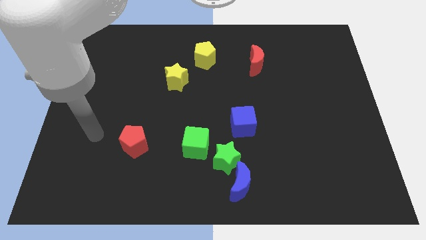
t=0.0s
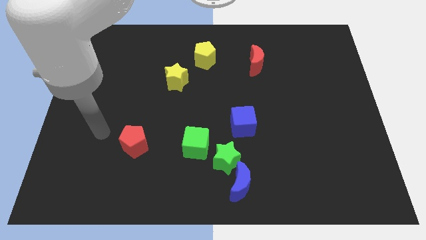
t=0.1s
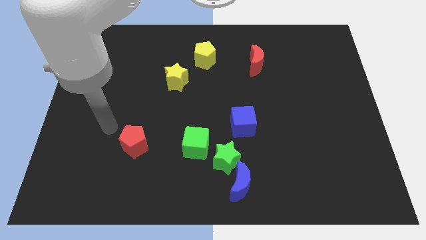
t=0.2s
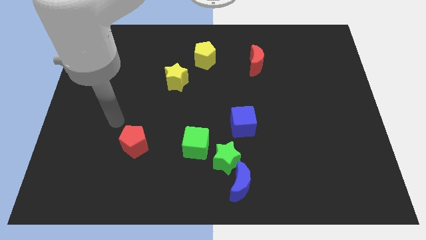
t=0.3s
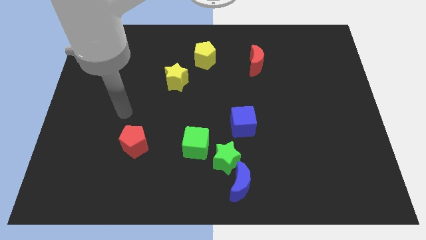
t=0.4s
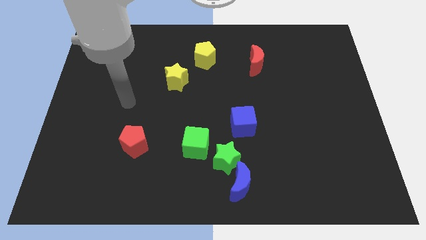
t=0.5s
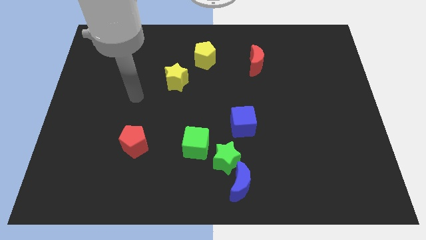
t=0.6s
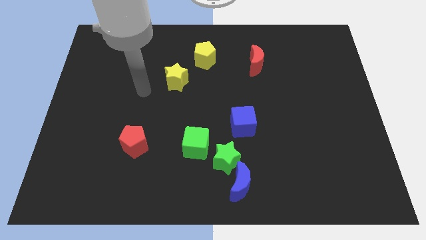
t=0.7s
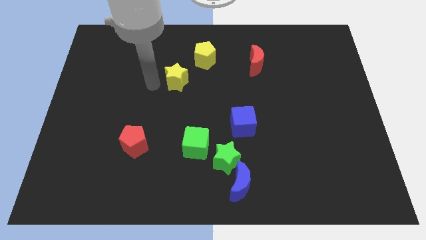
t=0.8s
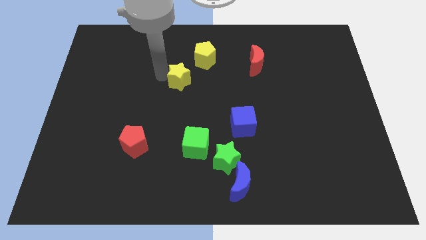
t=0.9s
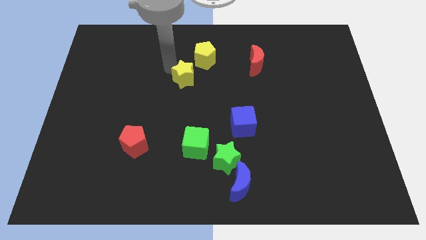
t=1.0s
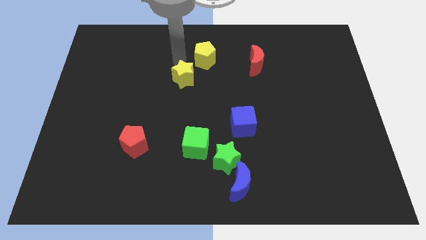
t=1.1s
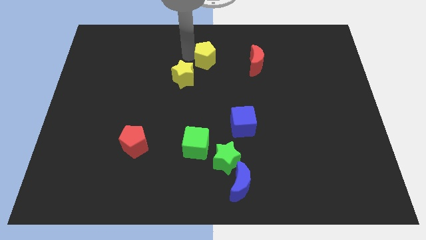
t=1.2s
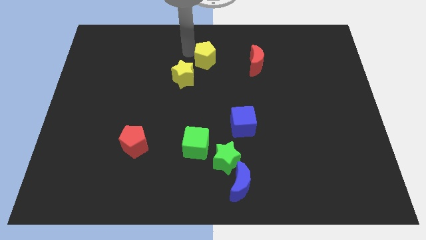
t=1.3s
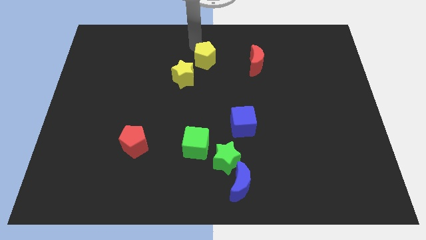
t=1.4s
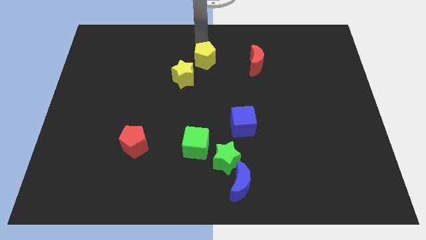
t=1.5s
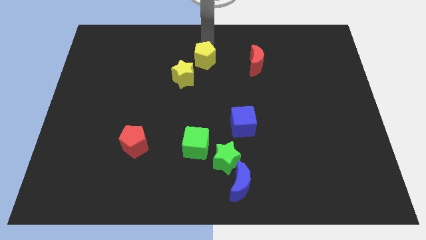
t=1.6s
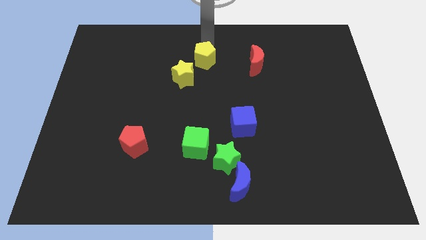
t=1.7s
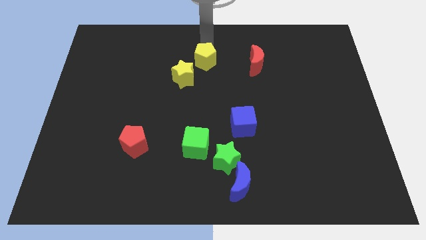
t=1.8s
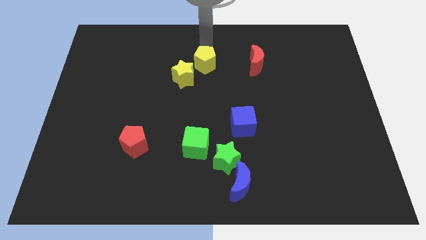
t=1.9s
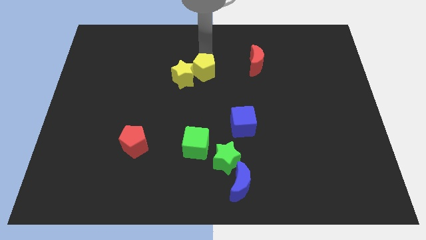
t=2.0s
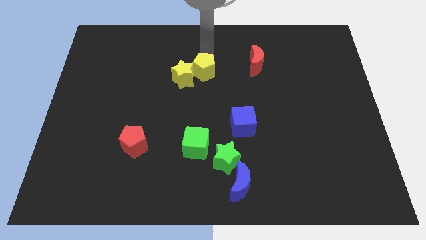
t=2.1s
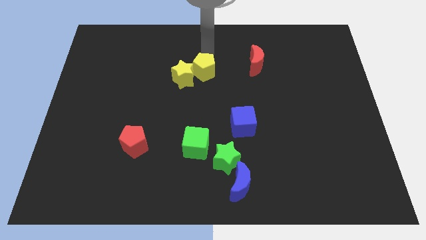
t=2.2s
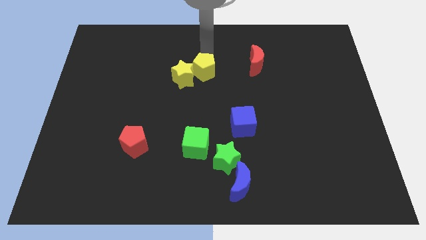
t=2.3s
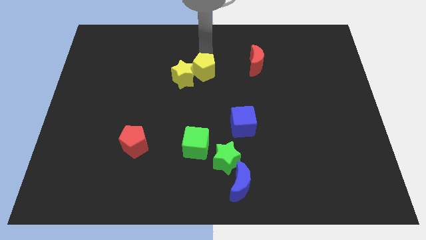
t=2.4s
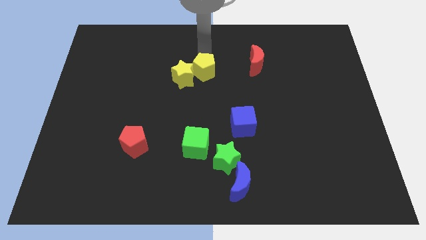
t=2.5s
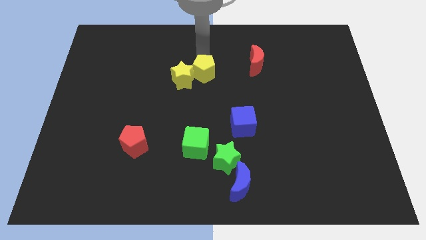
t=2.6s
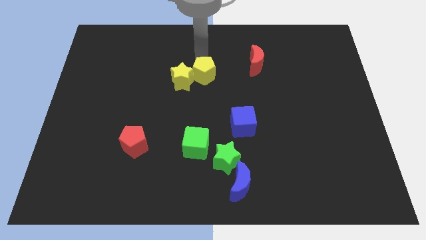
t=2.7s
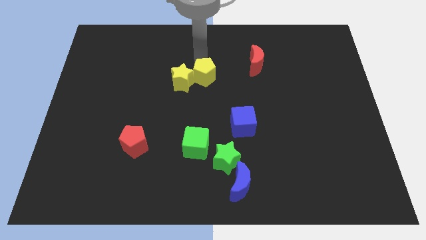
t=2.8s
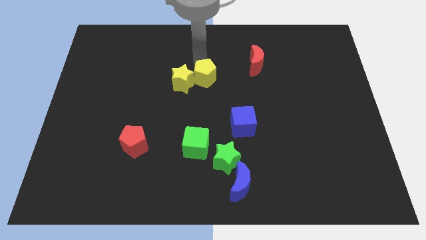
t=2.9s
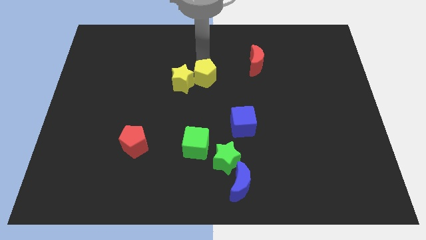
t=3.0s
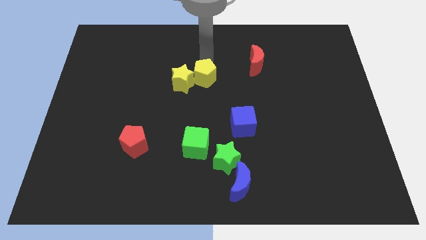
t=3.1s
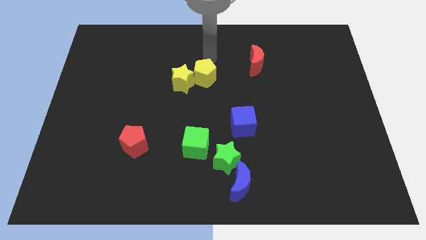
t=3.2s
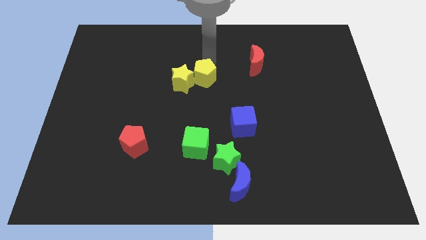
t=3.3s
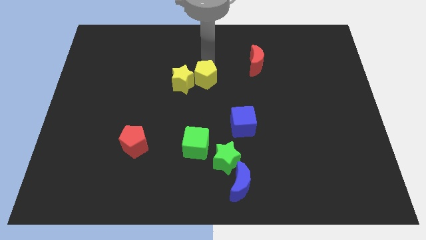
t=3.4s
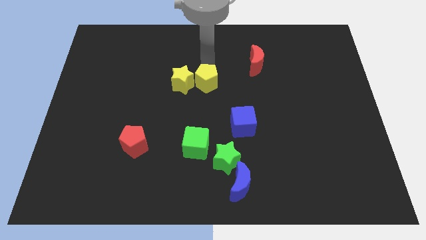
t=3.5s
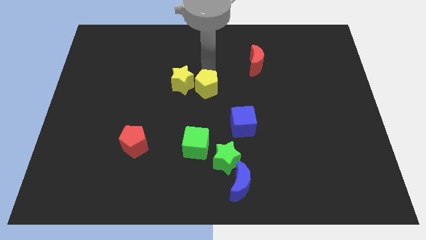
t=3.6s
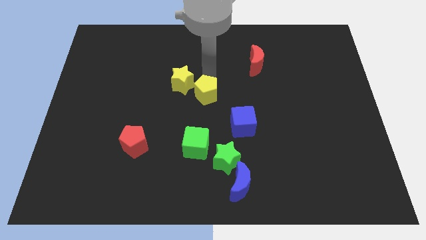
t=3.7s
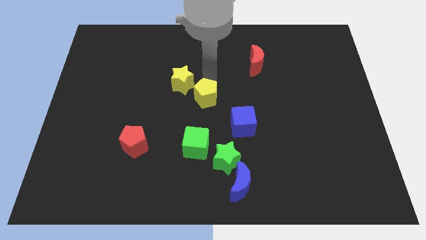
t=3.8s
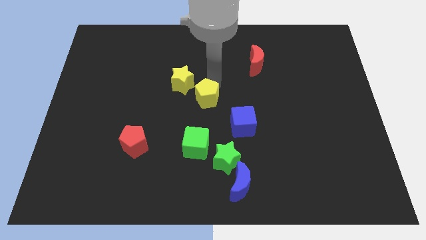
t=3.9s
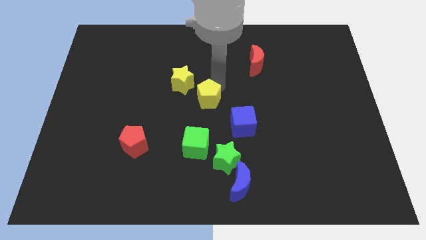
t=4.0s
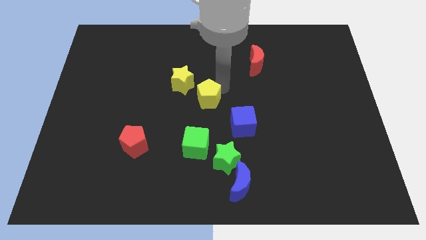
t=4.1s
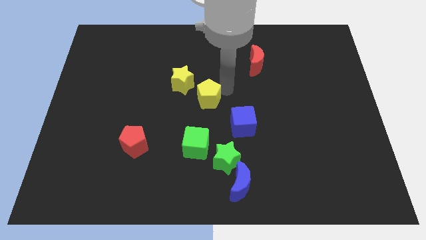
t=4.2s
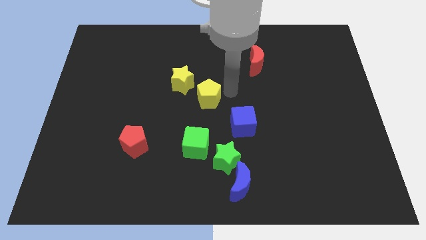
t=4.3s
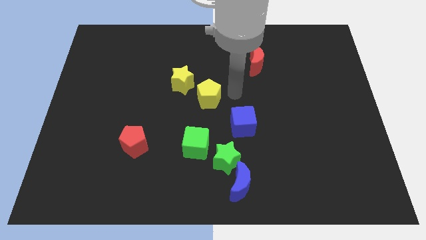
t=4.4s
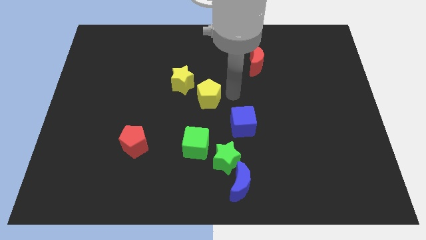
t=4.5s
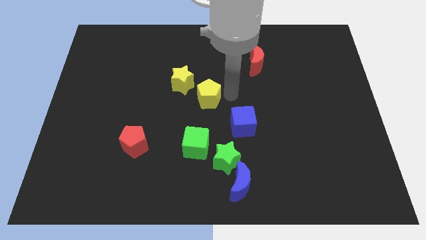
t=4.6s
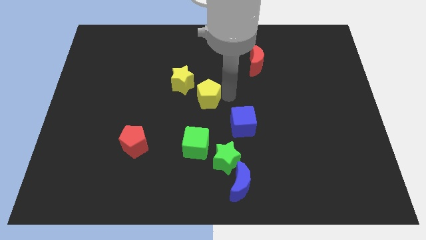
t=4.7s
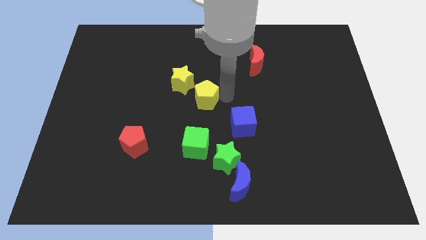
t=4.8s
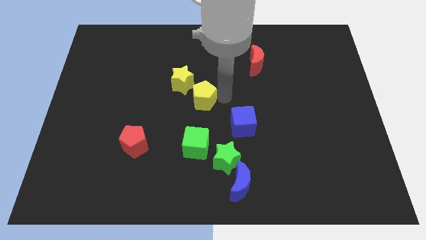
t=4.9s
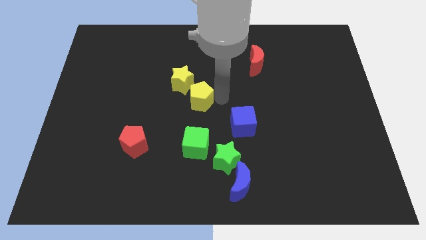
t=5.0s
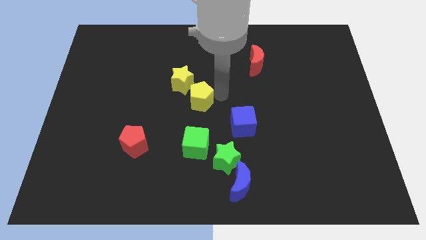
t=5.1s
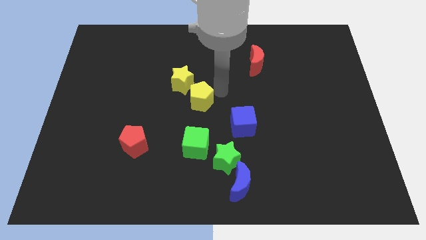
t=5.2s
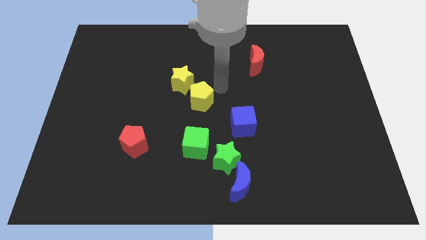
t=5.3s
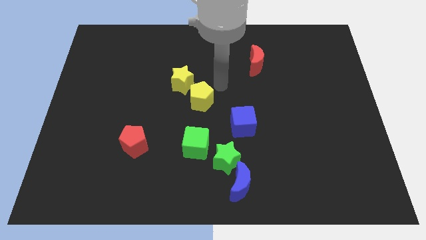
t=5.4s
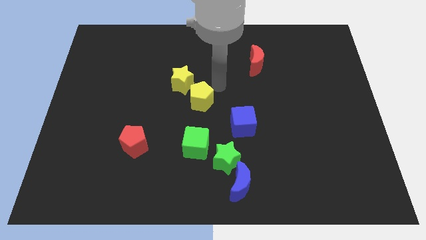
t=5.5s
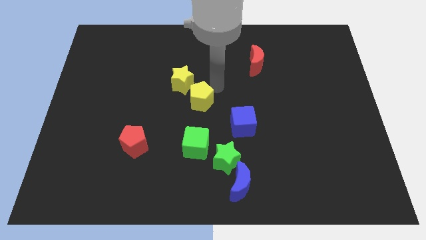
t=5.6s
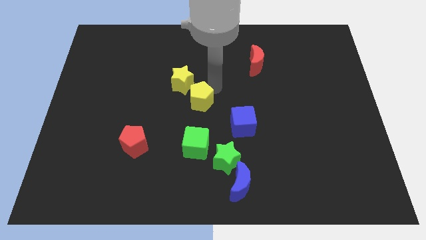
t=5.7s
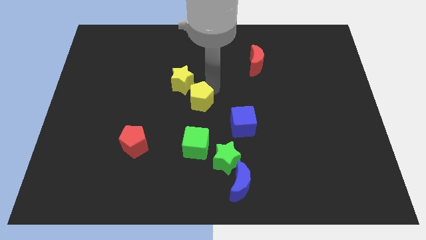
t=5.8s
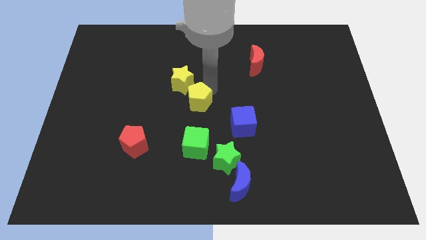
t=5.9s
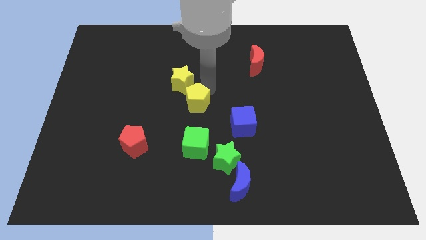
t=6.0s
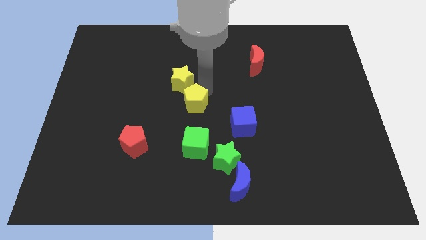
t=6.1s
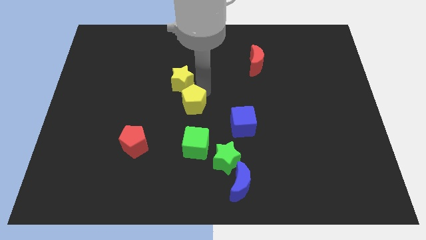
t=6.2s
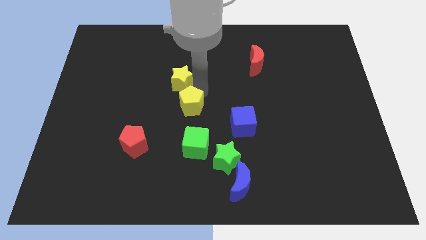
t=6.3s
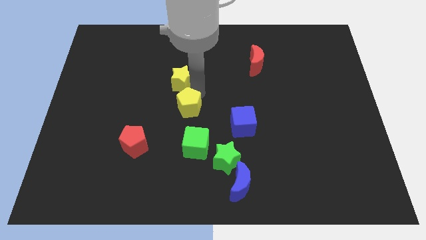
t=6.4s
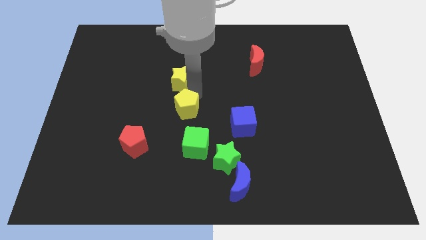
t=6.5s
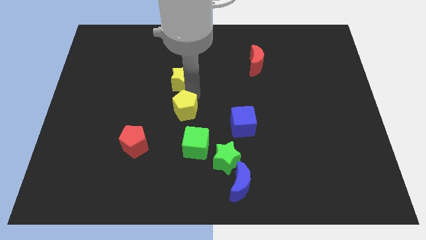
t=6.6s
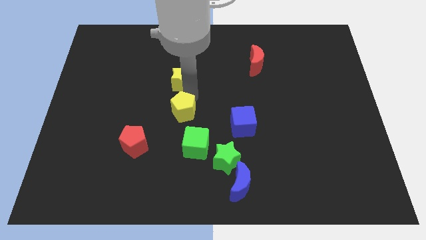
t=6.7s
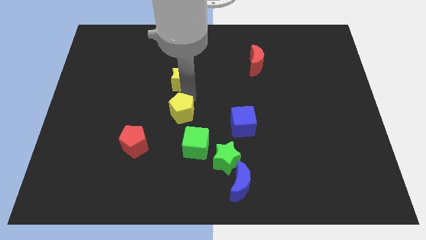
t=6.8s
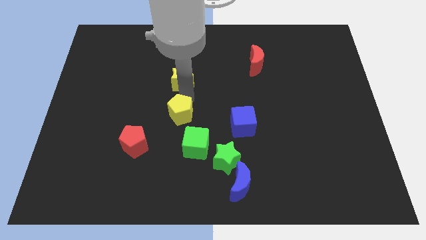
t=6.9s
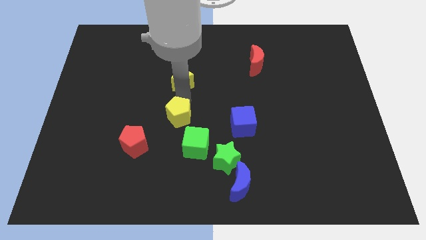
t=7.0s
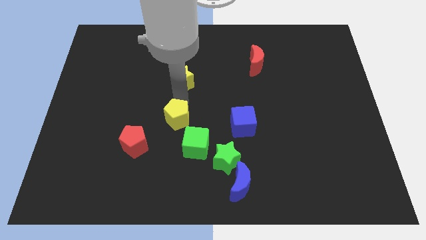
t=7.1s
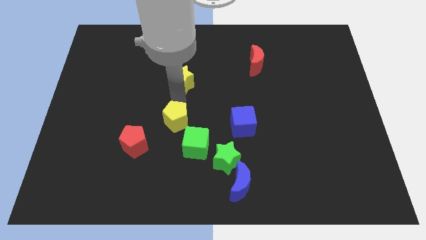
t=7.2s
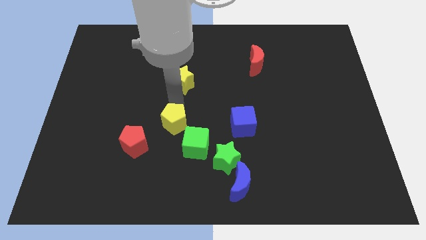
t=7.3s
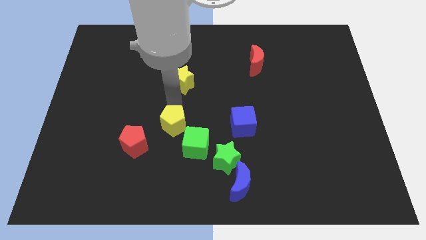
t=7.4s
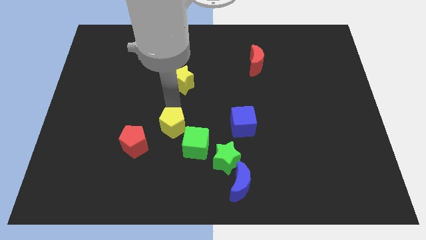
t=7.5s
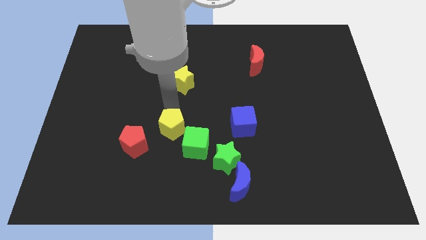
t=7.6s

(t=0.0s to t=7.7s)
push the yellow pentagon down

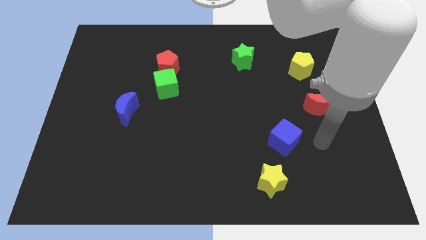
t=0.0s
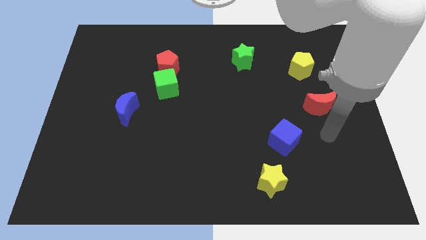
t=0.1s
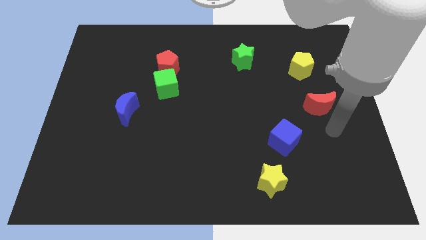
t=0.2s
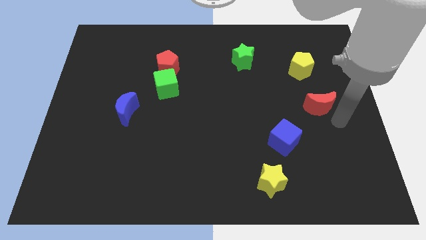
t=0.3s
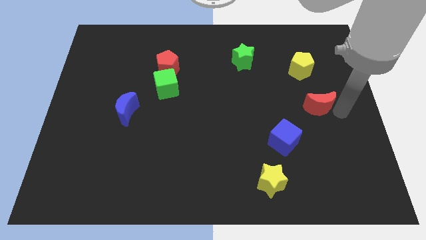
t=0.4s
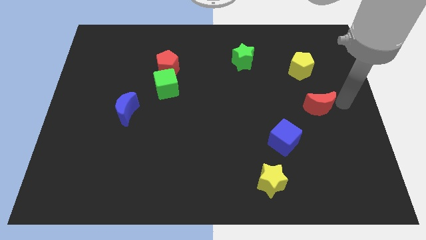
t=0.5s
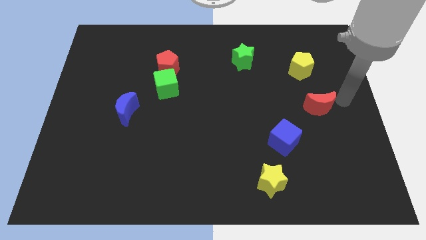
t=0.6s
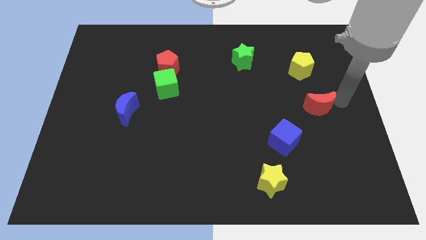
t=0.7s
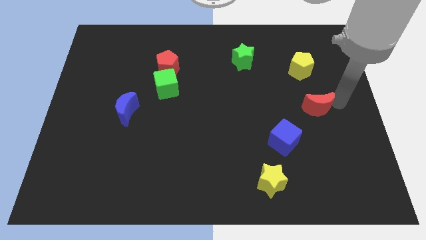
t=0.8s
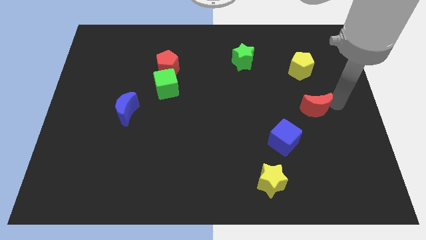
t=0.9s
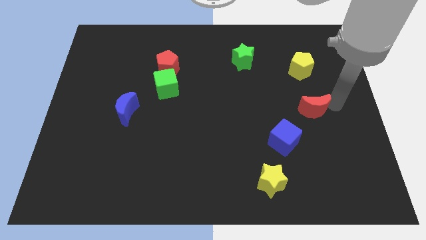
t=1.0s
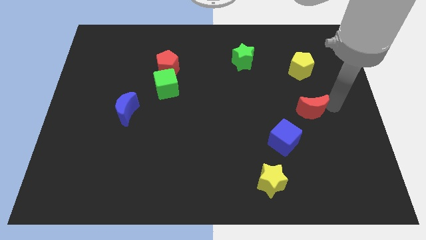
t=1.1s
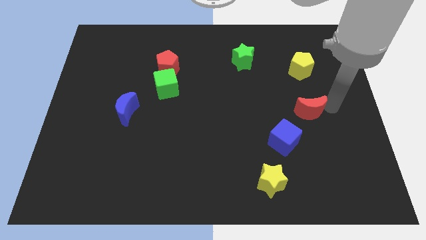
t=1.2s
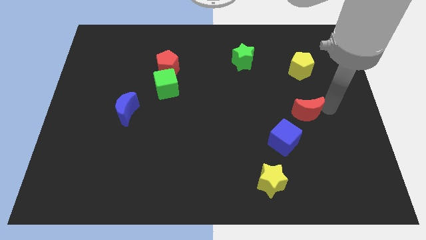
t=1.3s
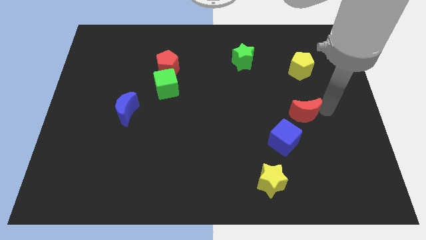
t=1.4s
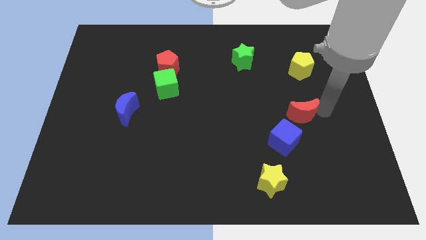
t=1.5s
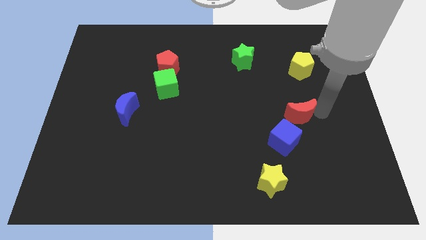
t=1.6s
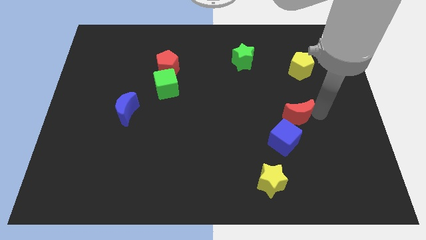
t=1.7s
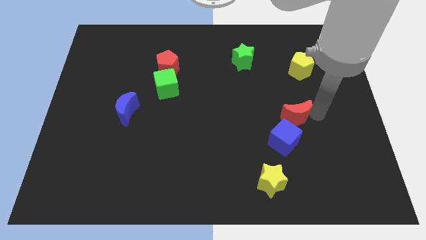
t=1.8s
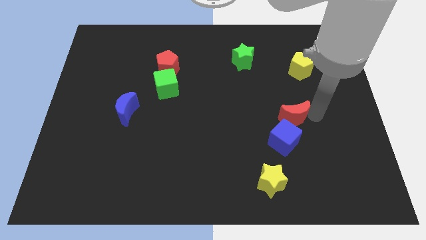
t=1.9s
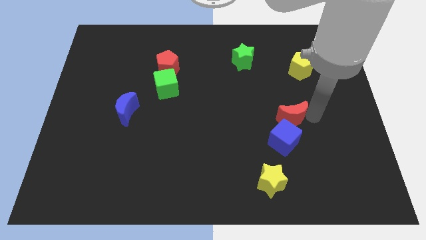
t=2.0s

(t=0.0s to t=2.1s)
push the red moon a little downwards and left
